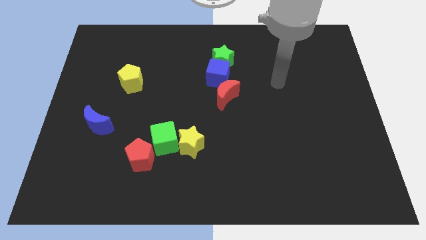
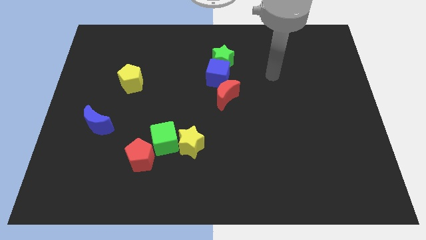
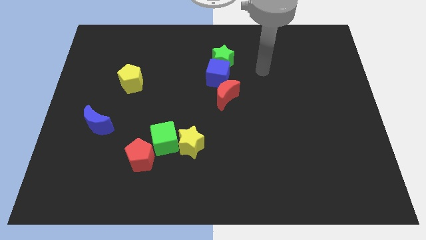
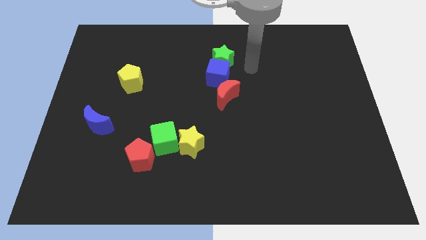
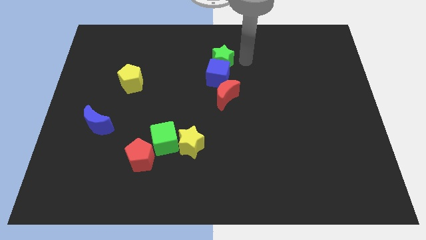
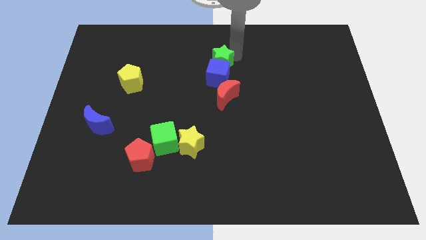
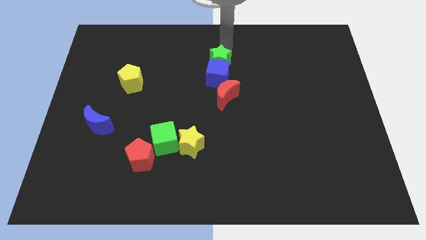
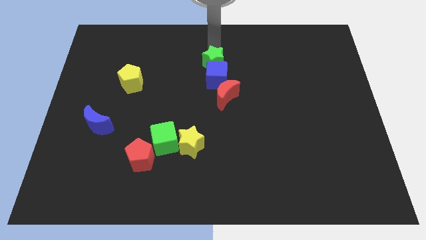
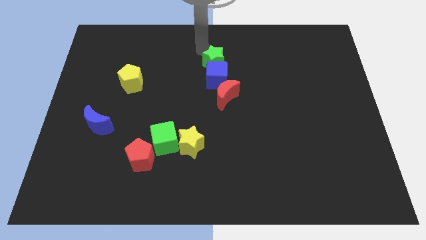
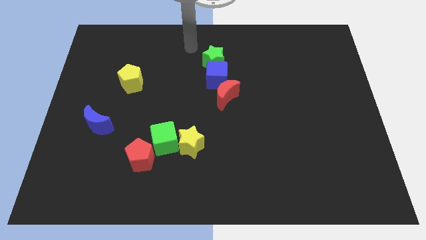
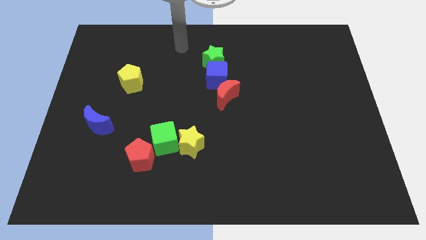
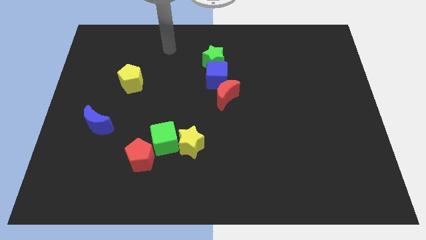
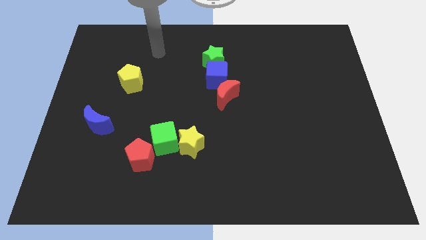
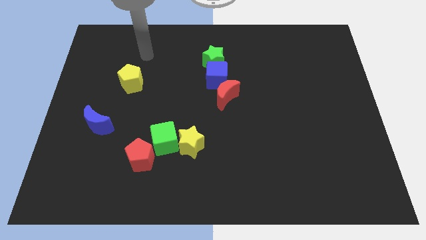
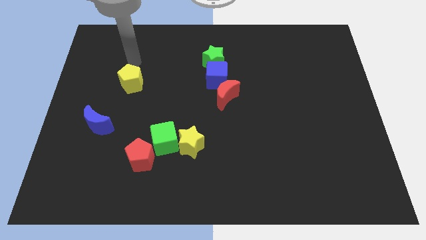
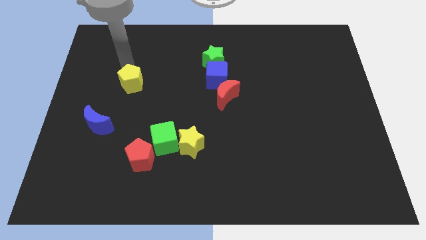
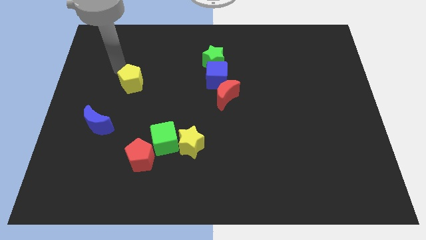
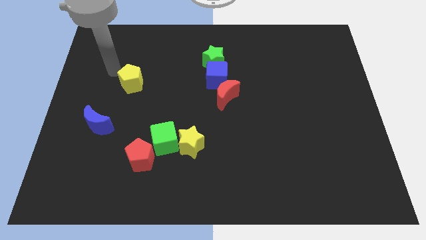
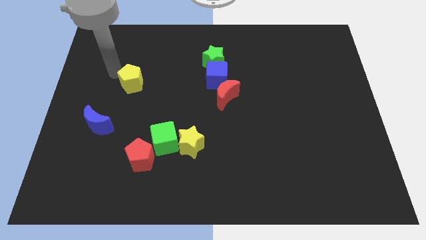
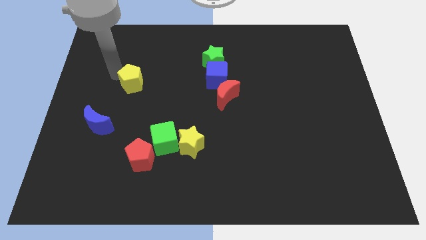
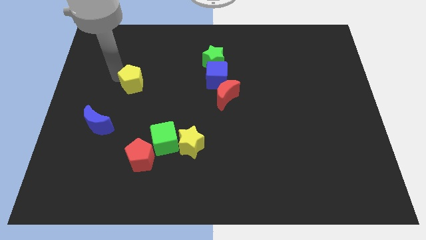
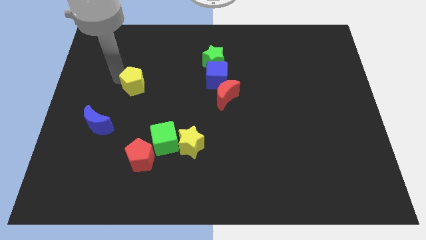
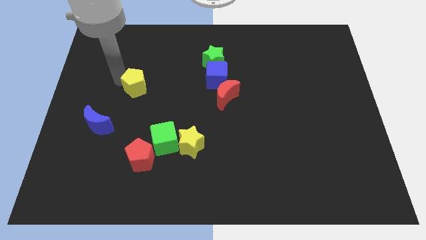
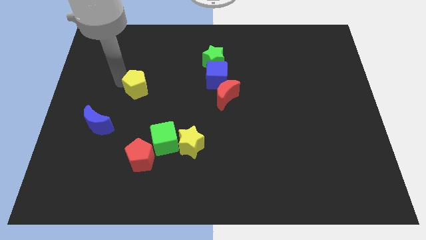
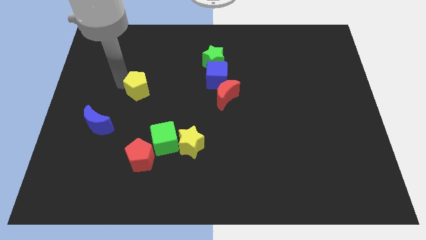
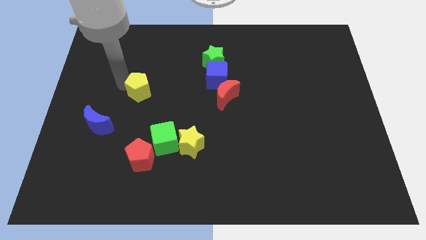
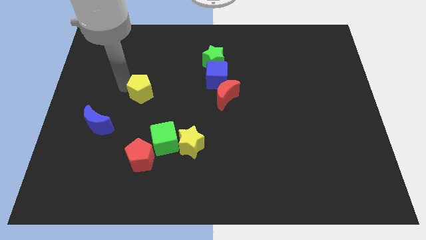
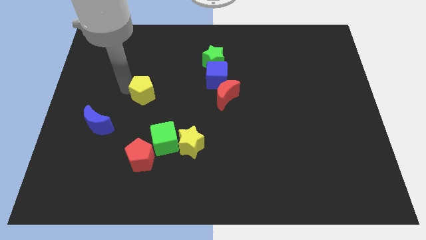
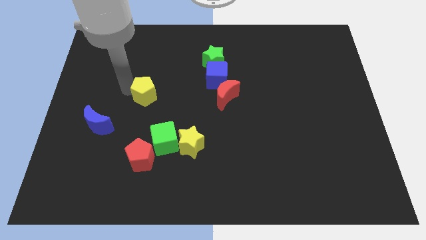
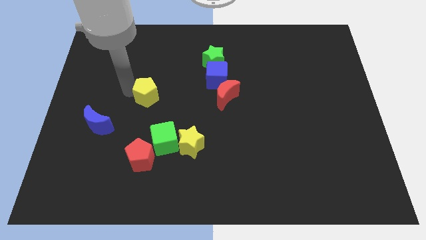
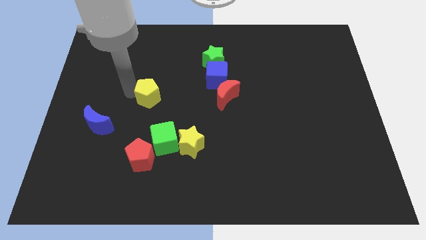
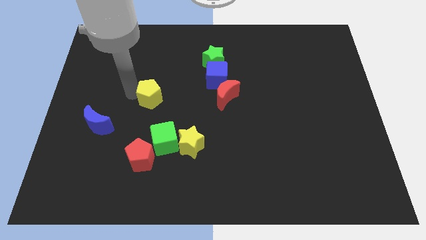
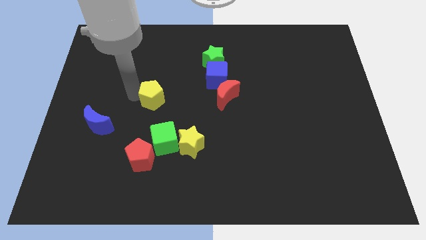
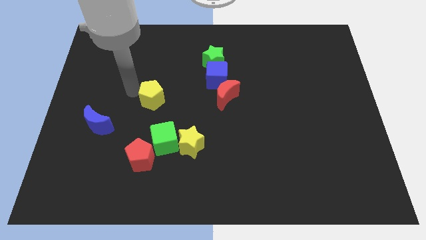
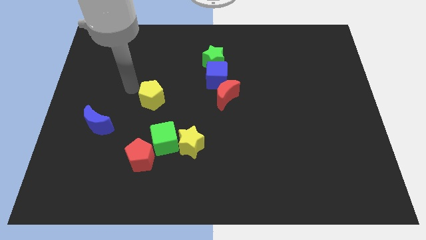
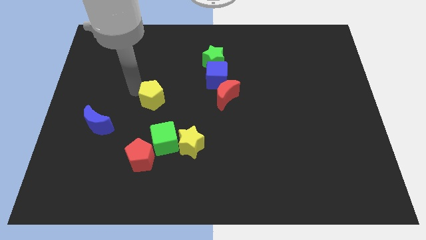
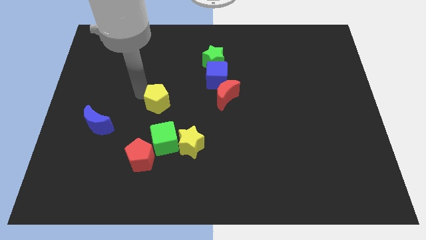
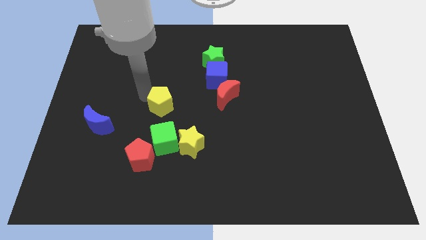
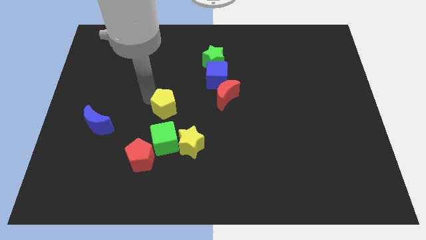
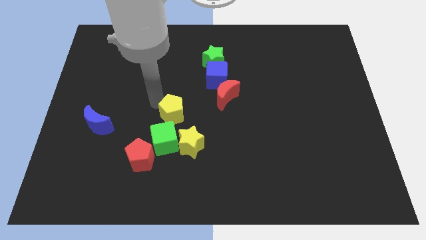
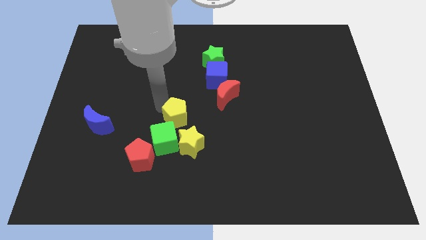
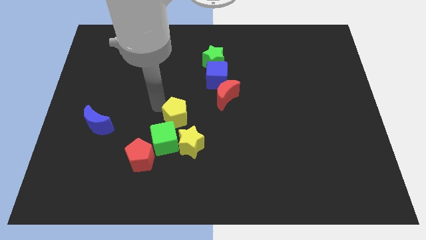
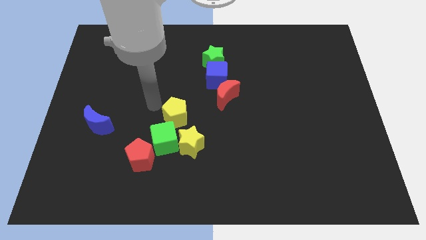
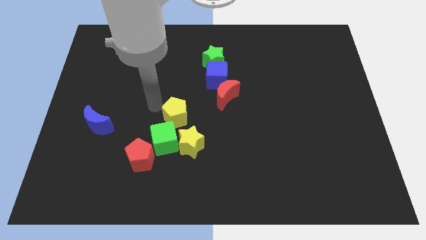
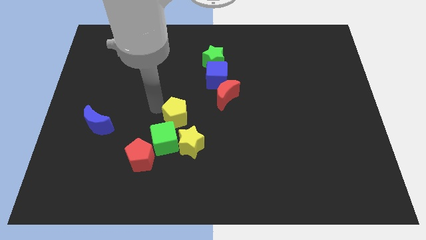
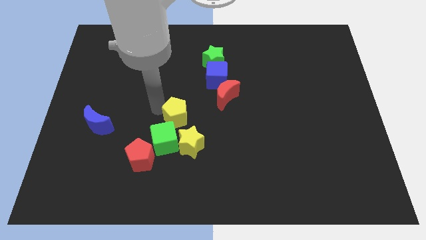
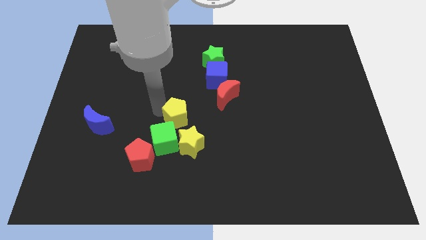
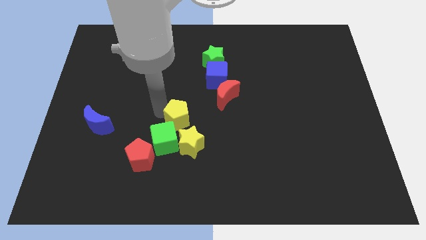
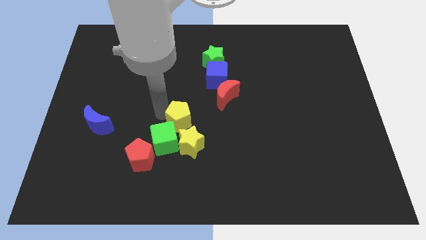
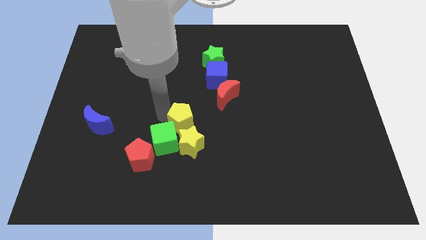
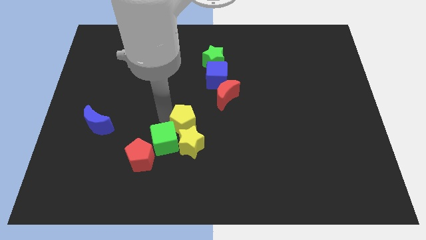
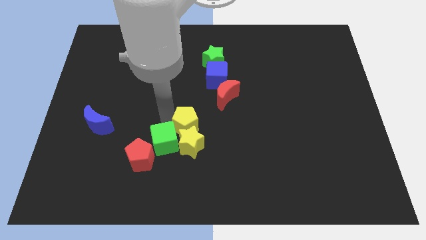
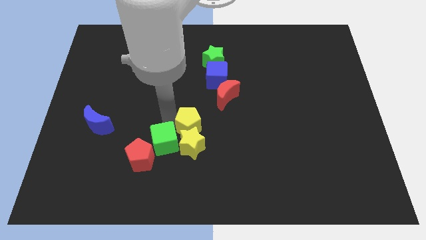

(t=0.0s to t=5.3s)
move the yellow pentagon downwards and to the right

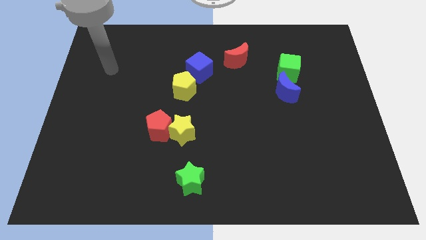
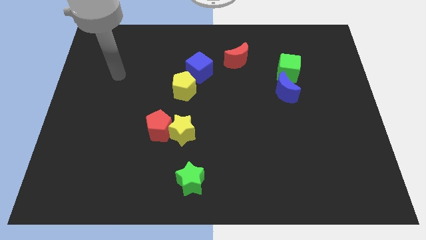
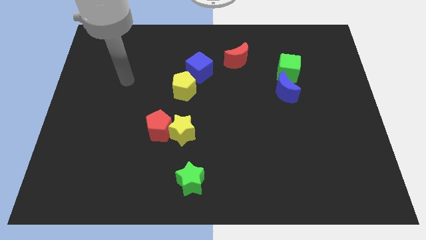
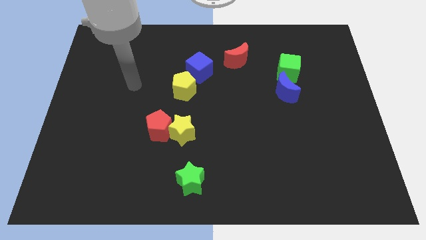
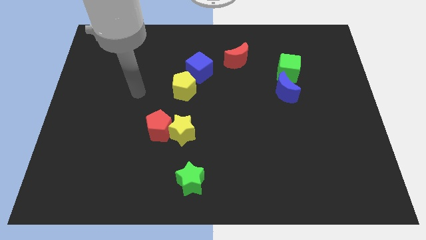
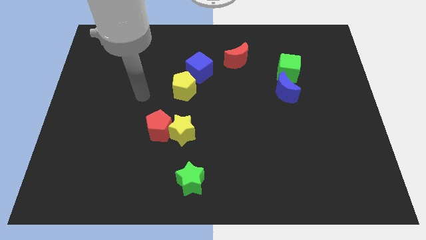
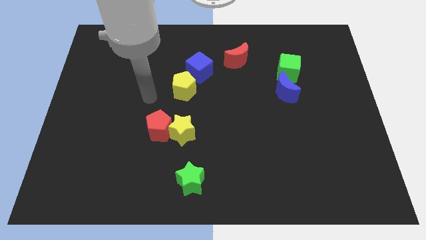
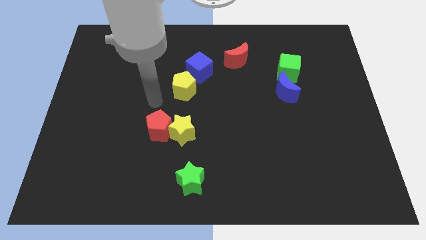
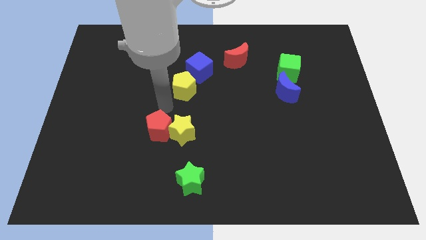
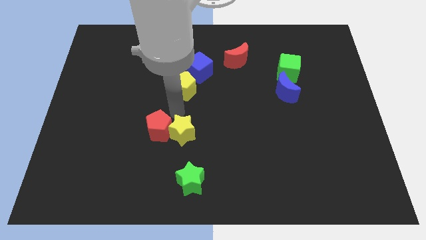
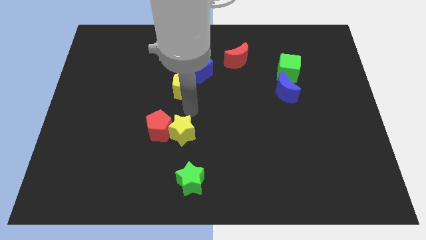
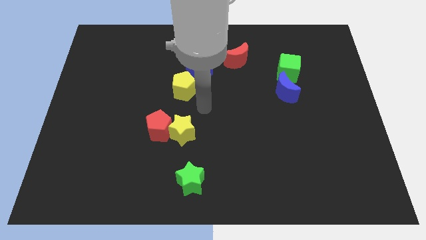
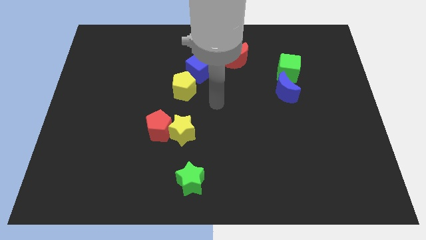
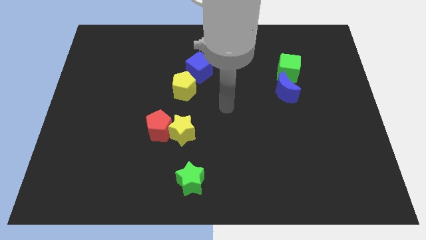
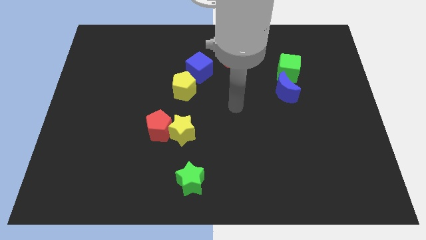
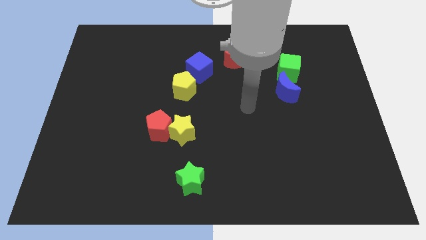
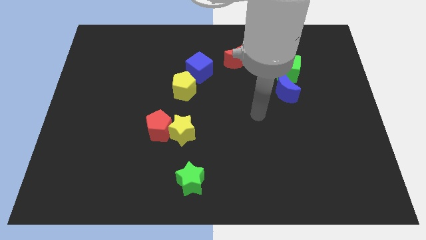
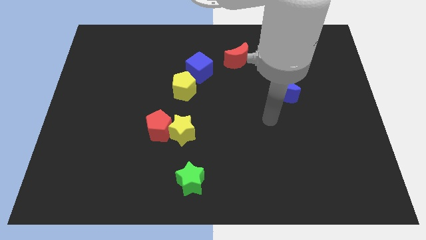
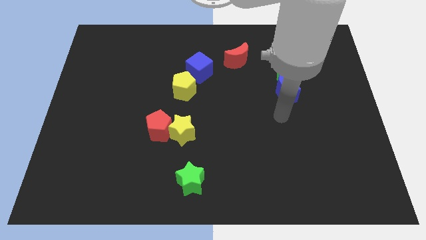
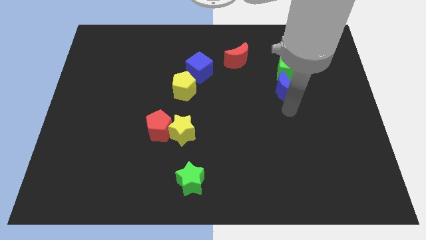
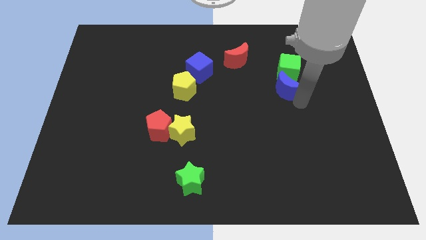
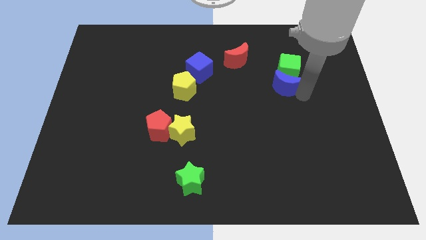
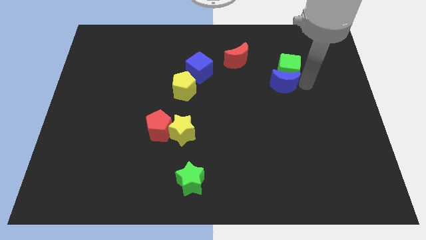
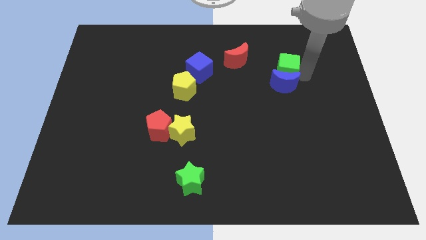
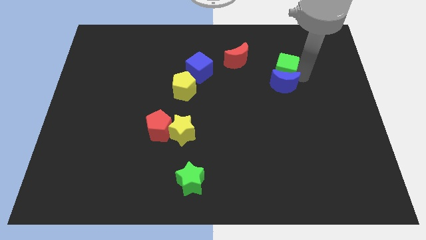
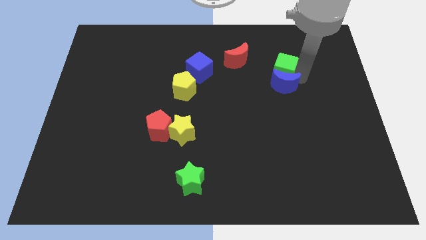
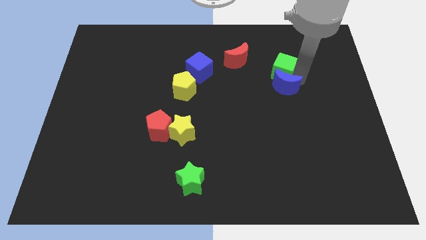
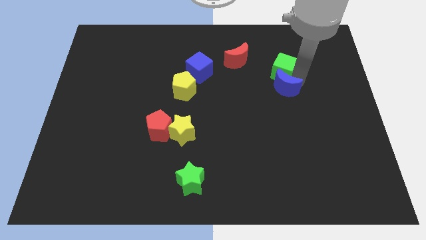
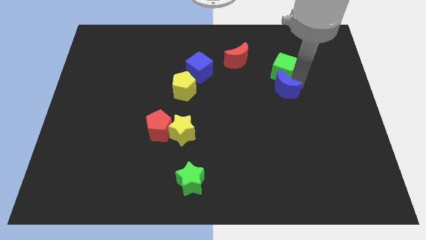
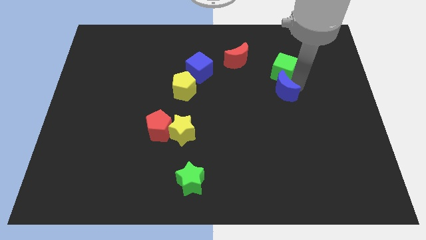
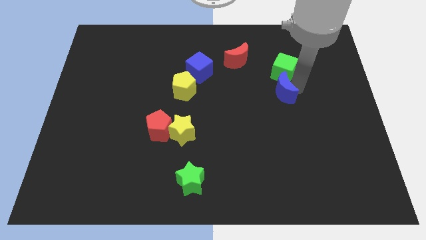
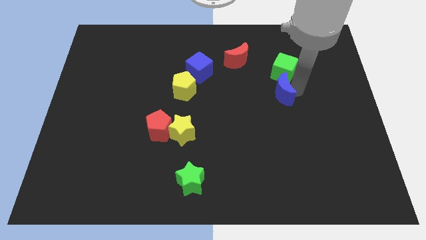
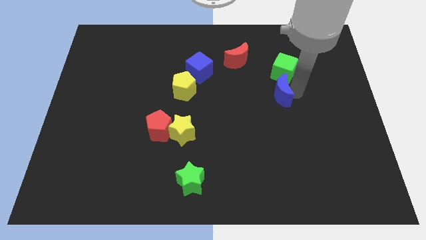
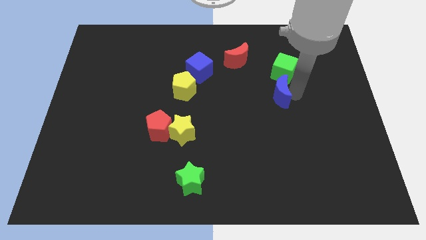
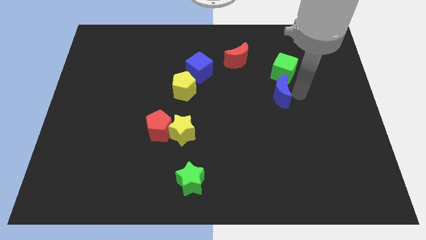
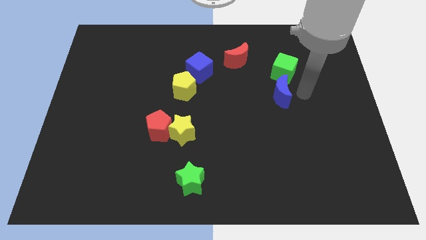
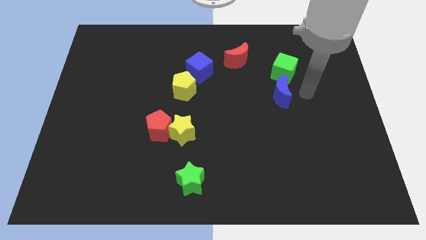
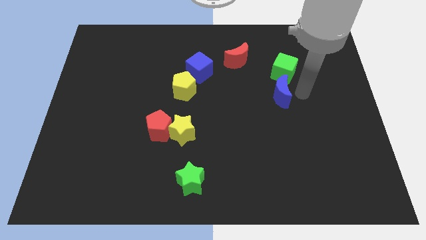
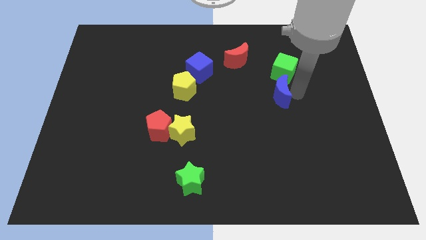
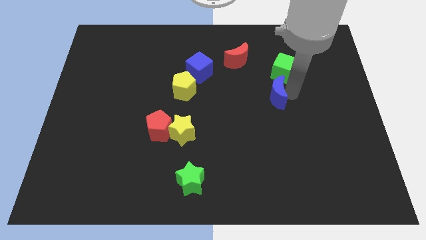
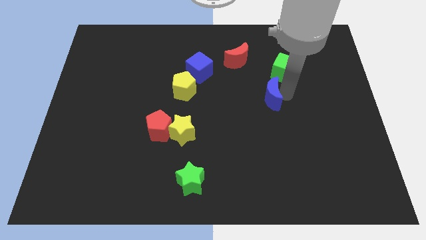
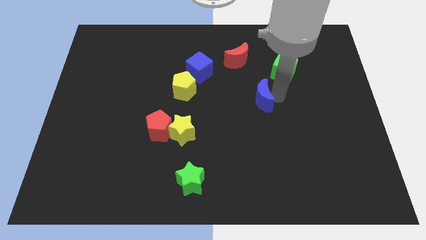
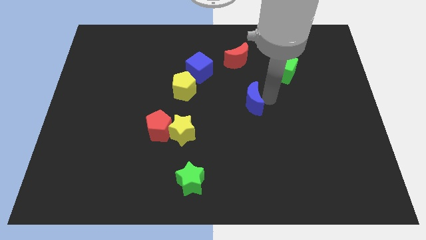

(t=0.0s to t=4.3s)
push the blue moon to the left a bit
